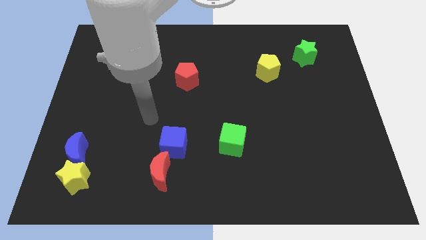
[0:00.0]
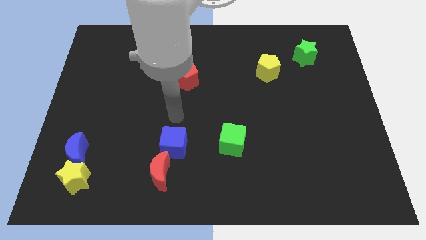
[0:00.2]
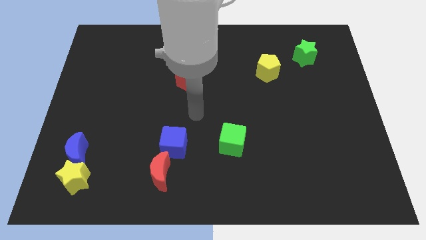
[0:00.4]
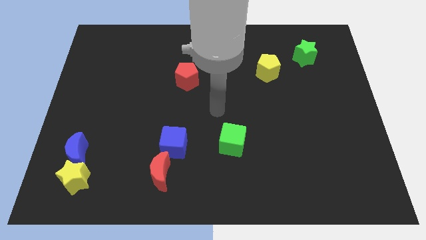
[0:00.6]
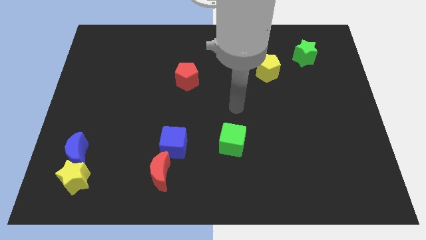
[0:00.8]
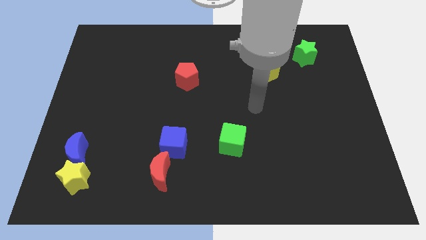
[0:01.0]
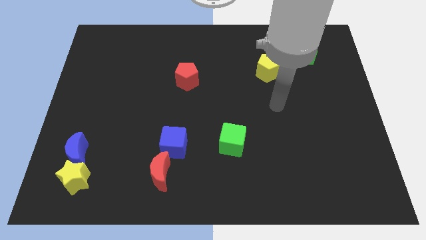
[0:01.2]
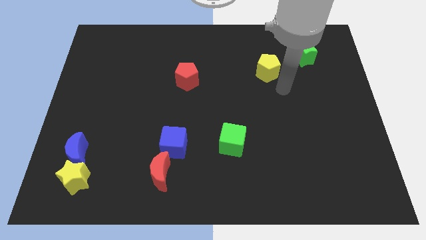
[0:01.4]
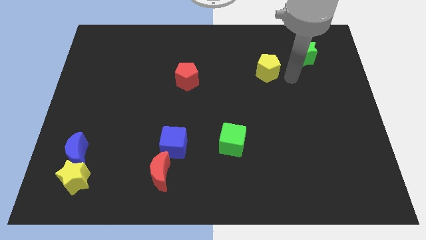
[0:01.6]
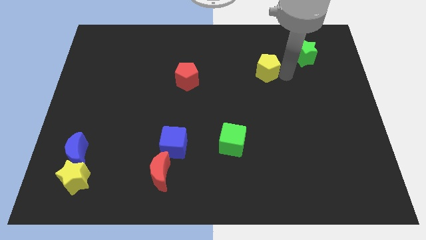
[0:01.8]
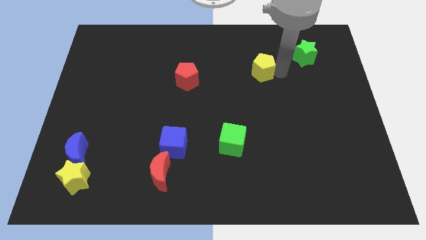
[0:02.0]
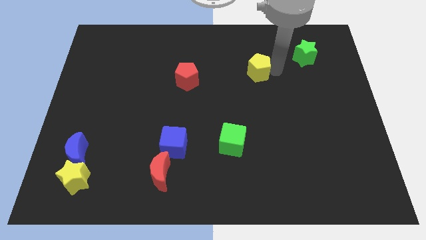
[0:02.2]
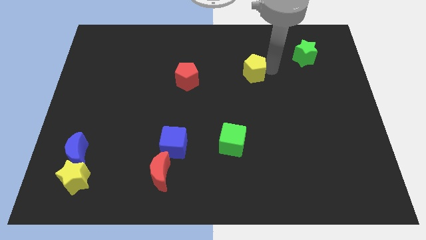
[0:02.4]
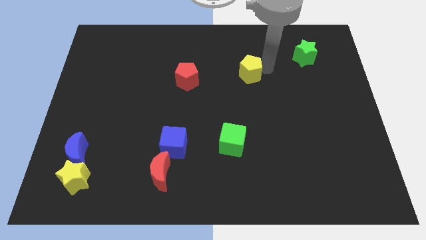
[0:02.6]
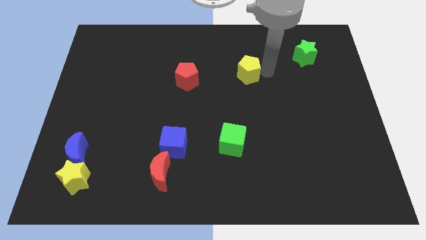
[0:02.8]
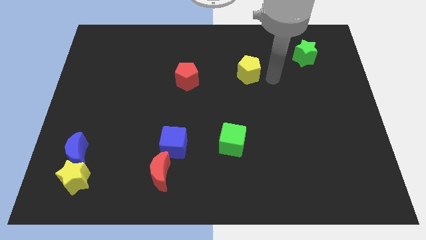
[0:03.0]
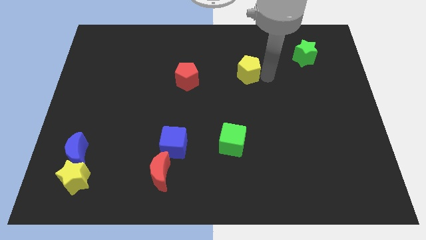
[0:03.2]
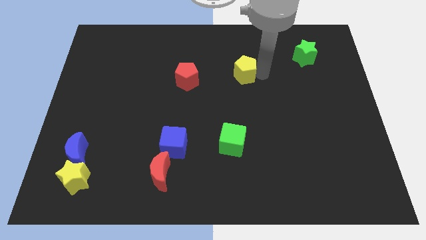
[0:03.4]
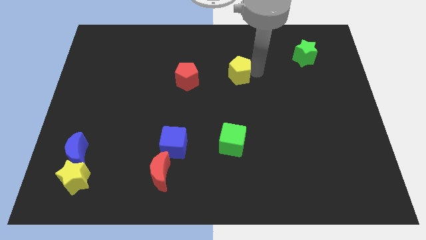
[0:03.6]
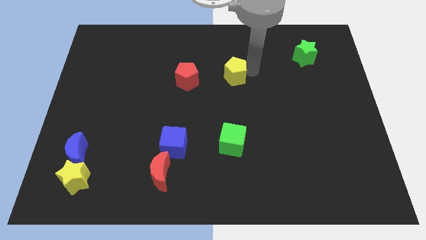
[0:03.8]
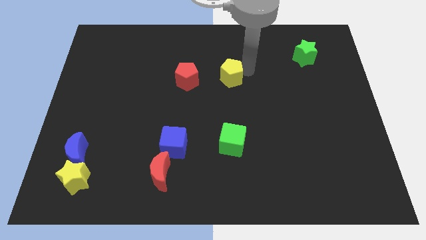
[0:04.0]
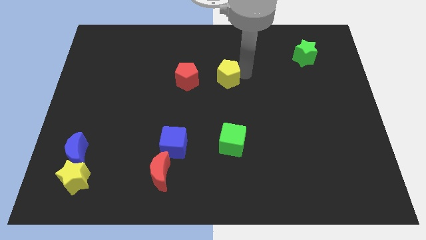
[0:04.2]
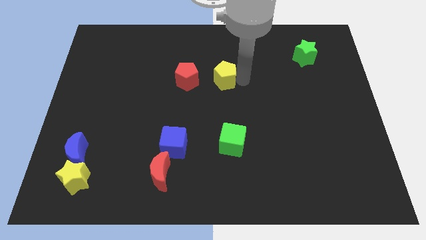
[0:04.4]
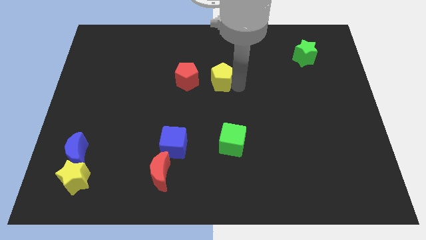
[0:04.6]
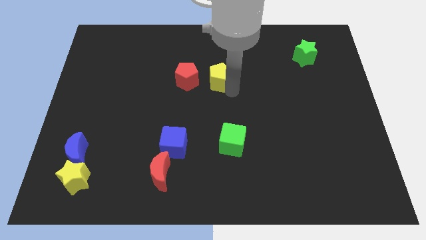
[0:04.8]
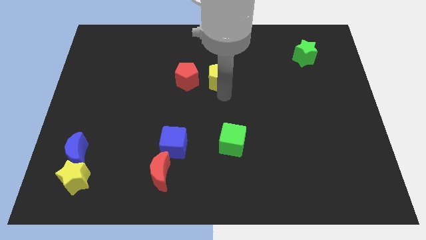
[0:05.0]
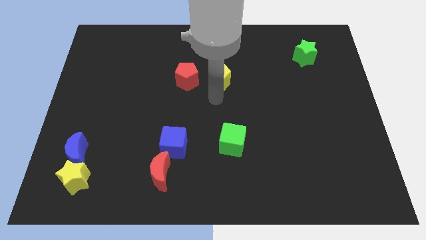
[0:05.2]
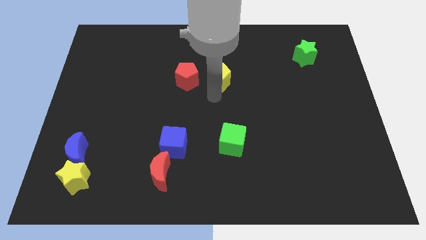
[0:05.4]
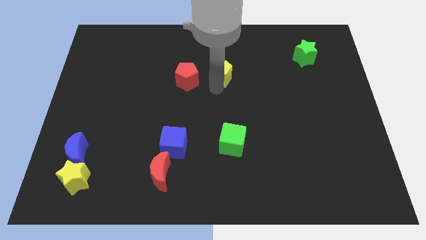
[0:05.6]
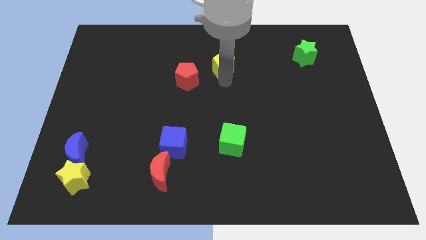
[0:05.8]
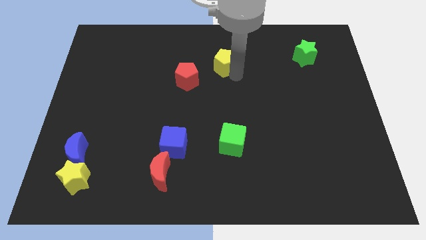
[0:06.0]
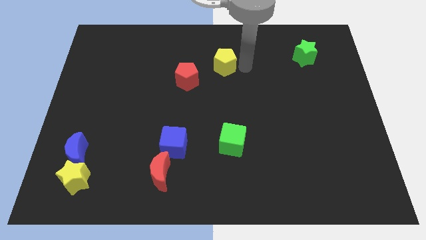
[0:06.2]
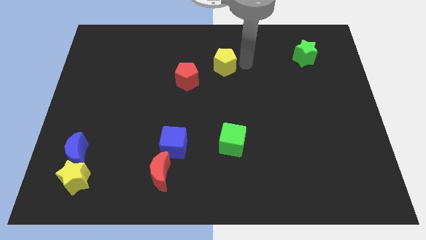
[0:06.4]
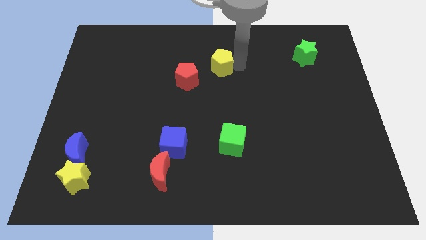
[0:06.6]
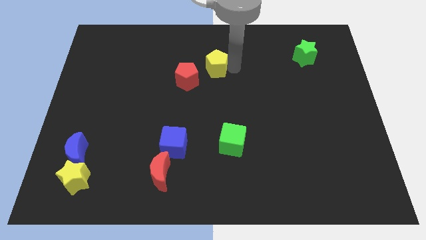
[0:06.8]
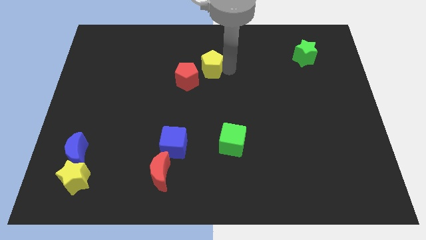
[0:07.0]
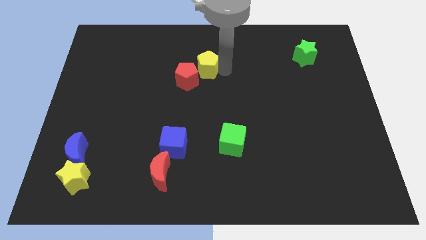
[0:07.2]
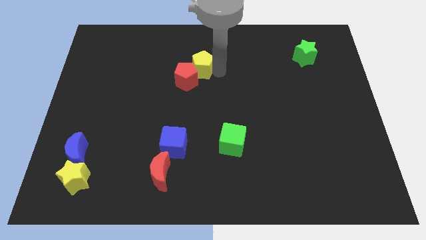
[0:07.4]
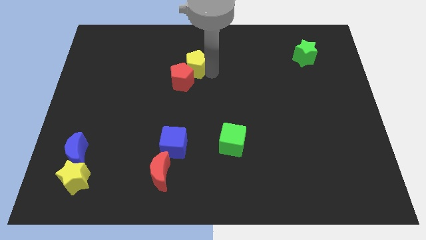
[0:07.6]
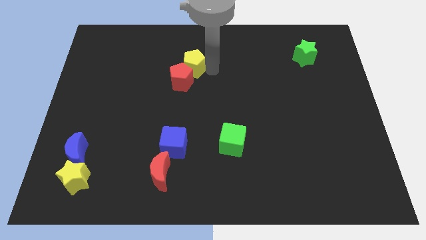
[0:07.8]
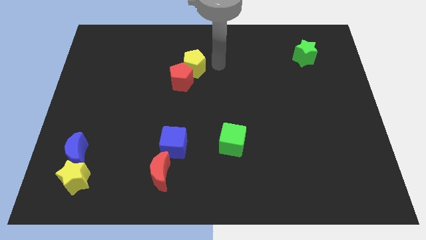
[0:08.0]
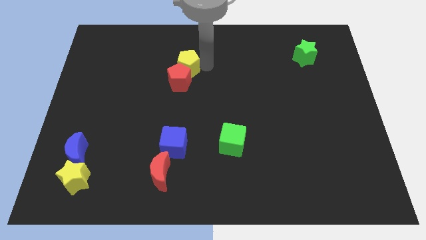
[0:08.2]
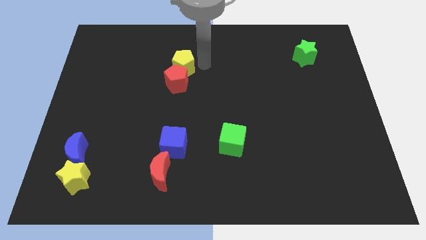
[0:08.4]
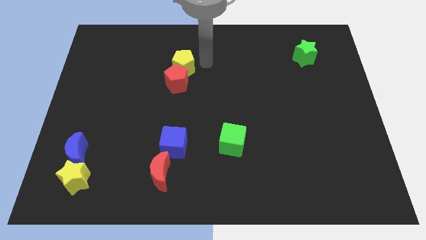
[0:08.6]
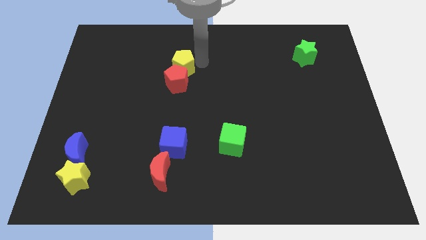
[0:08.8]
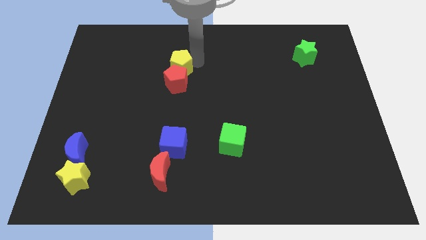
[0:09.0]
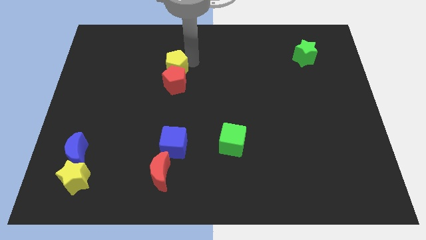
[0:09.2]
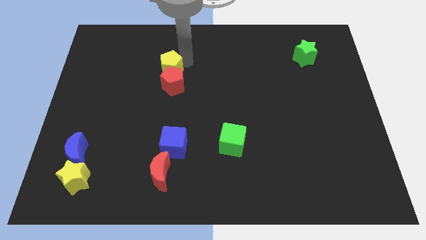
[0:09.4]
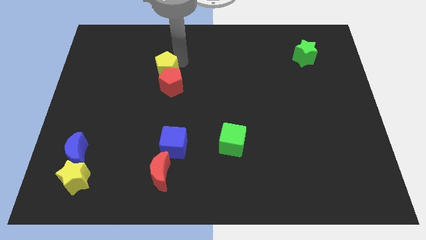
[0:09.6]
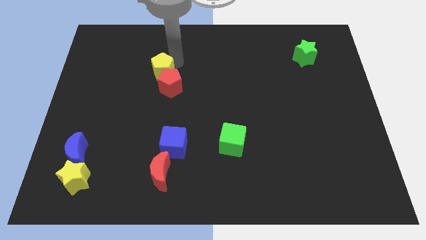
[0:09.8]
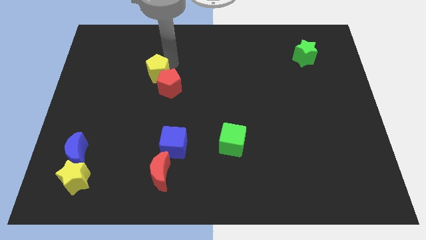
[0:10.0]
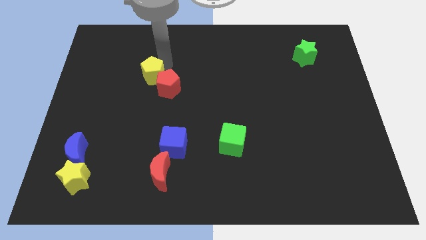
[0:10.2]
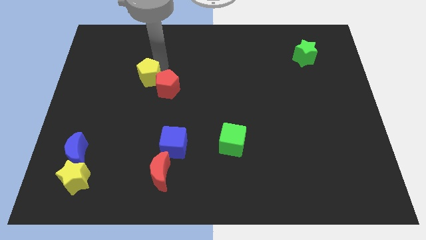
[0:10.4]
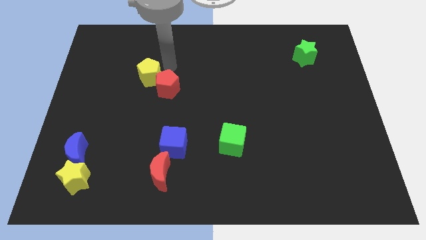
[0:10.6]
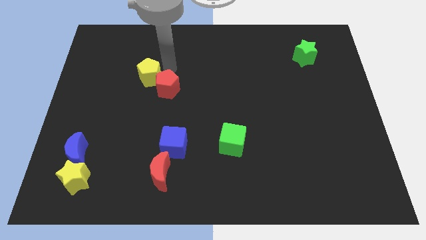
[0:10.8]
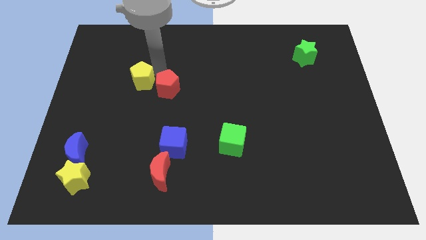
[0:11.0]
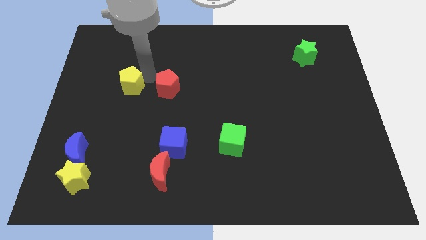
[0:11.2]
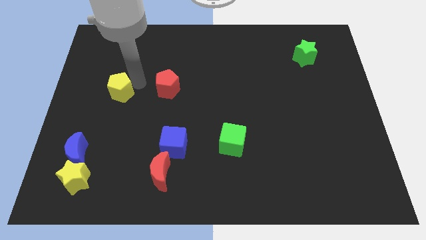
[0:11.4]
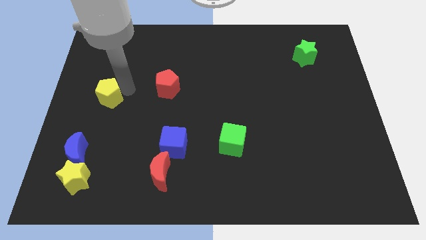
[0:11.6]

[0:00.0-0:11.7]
put the yellow pentagon to the left side
